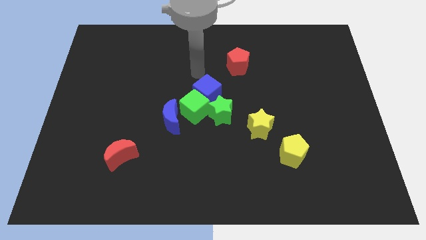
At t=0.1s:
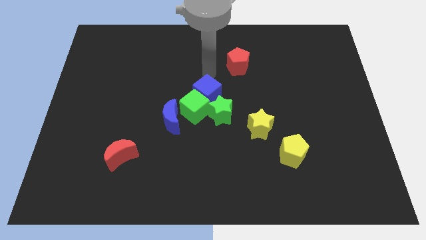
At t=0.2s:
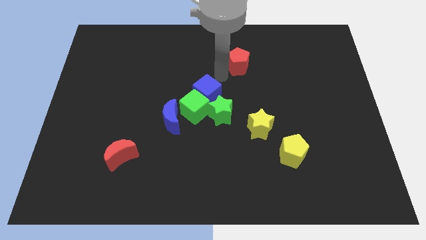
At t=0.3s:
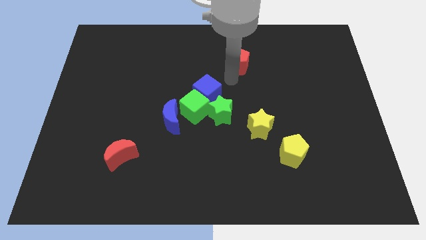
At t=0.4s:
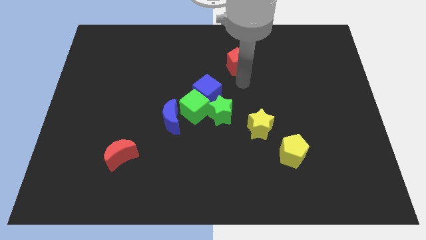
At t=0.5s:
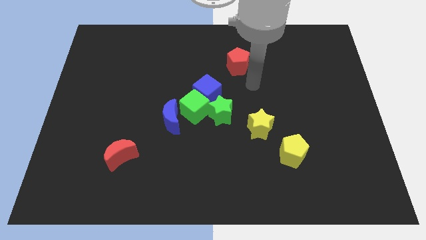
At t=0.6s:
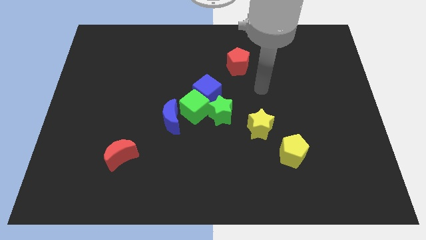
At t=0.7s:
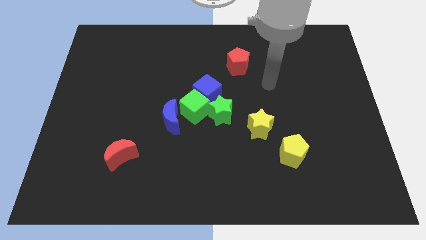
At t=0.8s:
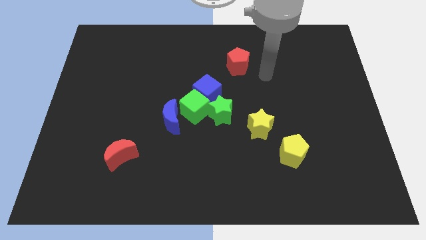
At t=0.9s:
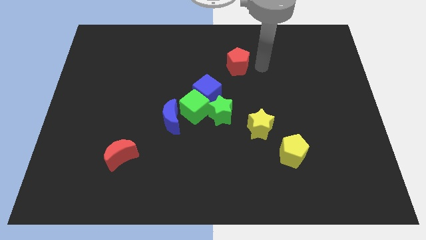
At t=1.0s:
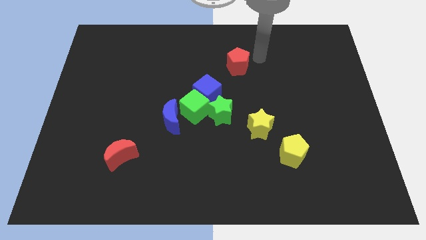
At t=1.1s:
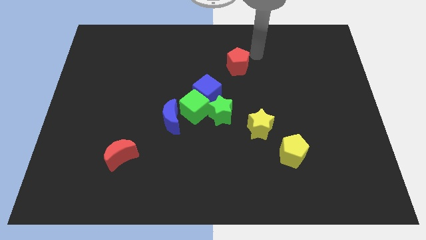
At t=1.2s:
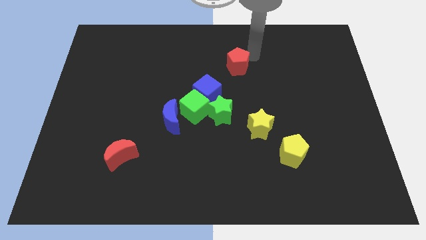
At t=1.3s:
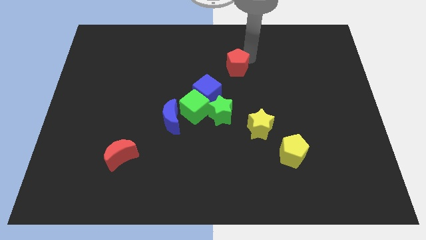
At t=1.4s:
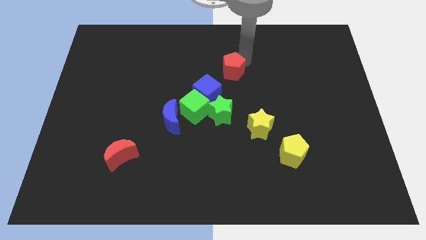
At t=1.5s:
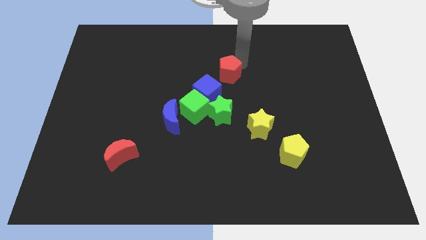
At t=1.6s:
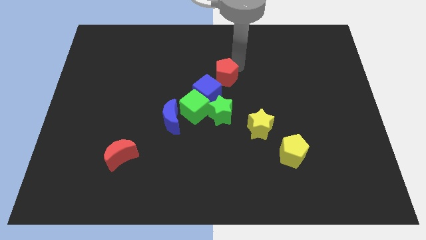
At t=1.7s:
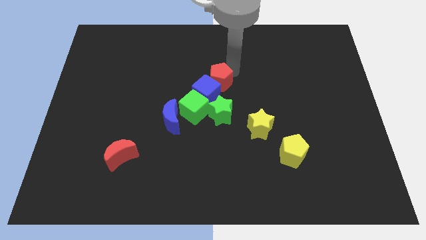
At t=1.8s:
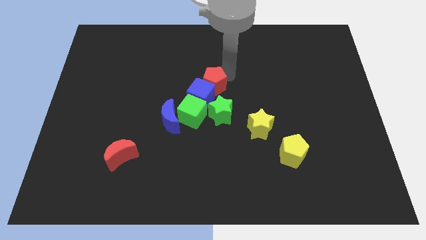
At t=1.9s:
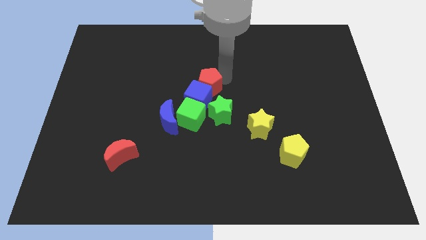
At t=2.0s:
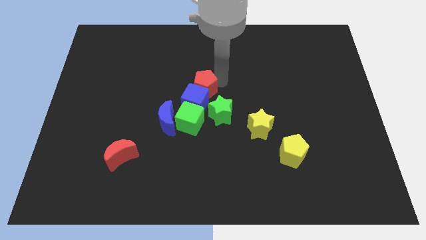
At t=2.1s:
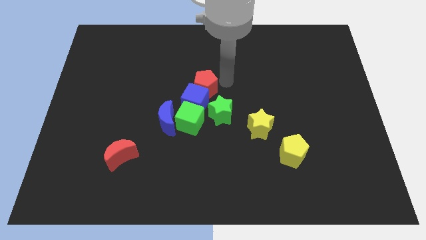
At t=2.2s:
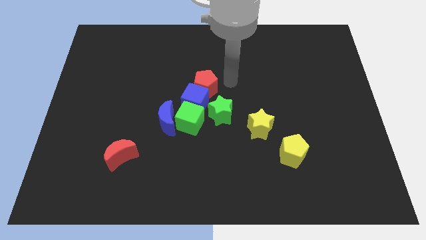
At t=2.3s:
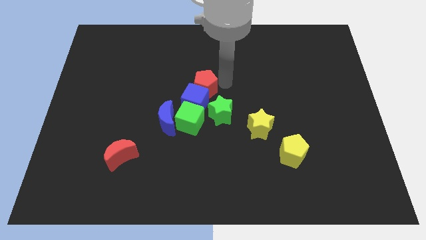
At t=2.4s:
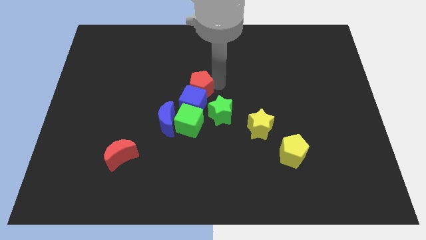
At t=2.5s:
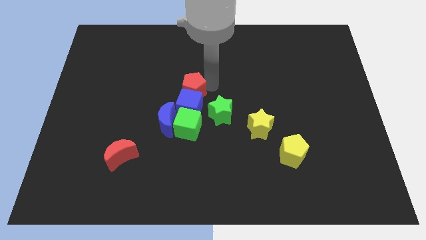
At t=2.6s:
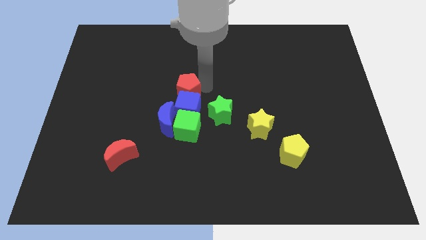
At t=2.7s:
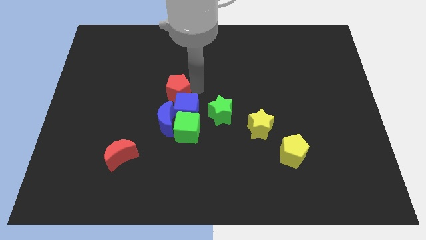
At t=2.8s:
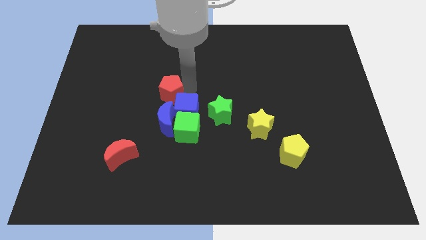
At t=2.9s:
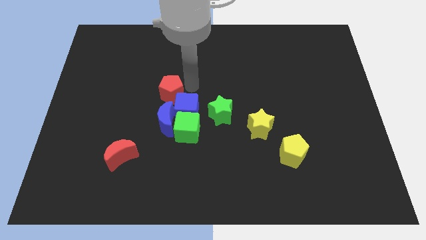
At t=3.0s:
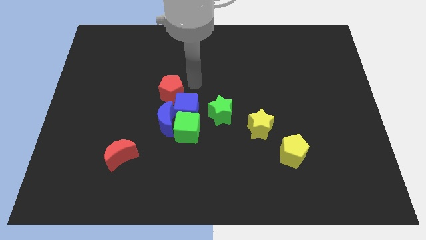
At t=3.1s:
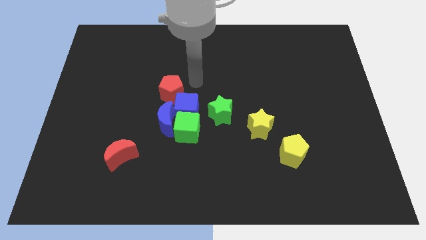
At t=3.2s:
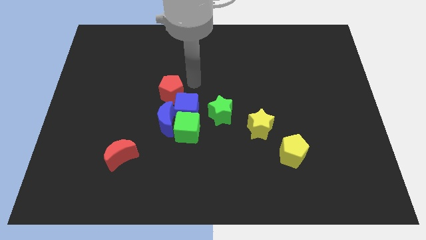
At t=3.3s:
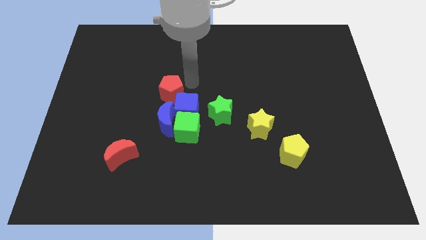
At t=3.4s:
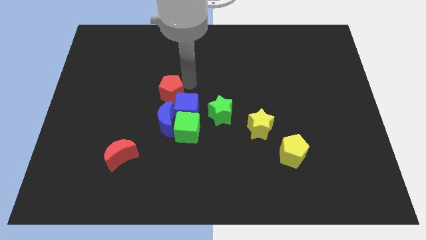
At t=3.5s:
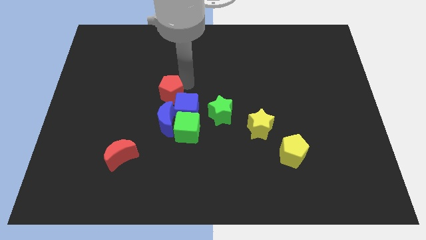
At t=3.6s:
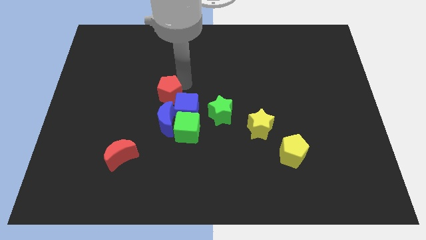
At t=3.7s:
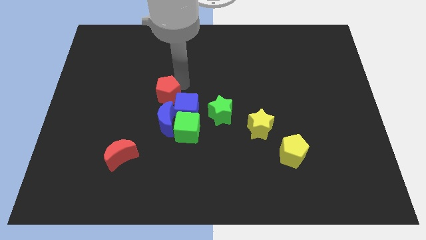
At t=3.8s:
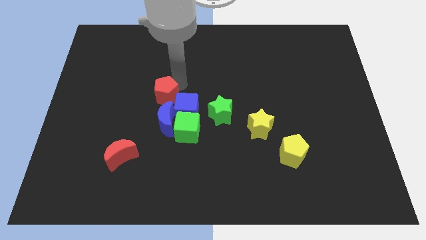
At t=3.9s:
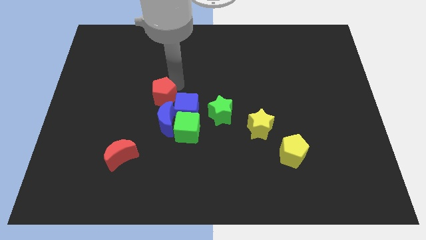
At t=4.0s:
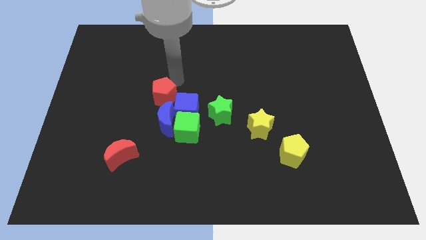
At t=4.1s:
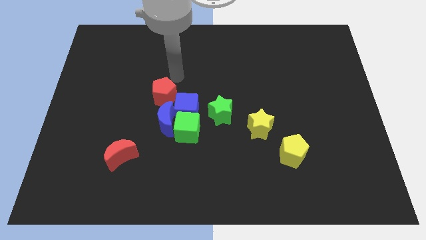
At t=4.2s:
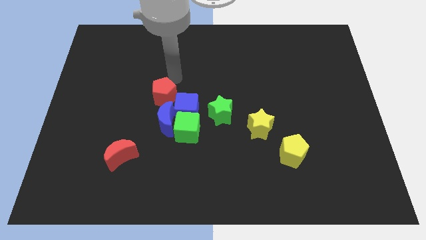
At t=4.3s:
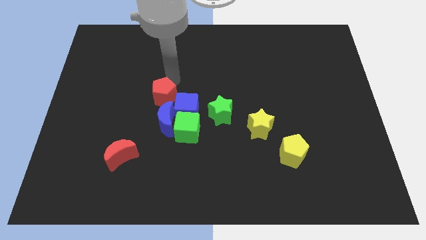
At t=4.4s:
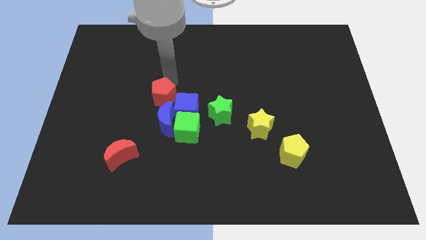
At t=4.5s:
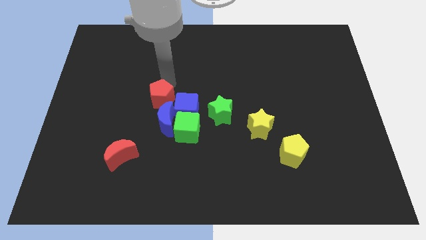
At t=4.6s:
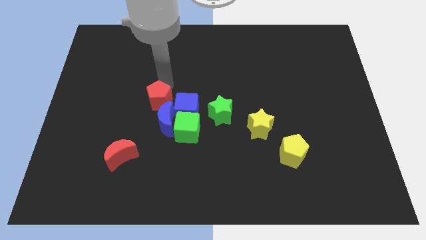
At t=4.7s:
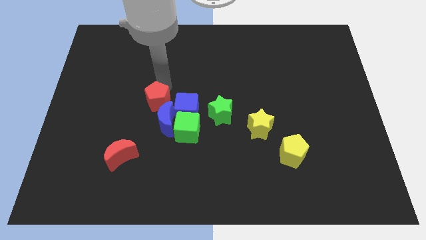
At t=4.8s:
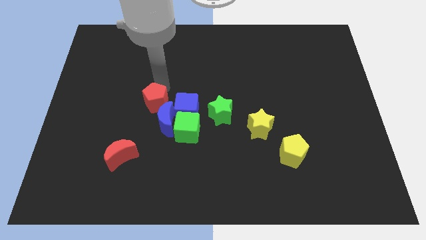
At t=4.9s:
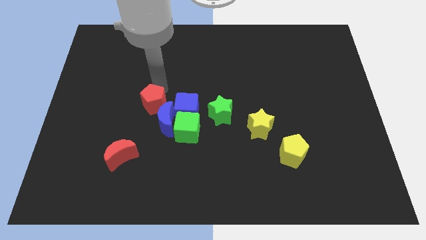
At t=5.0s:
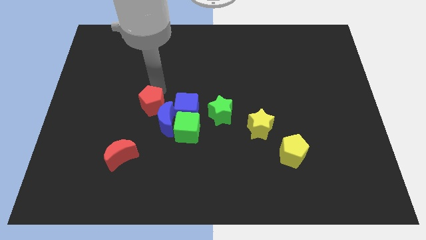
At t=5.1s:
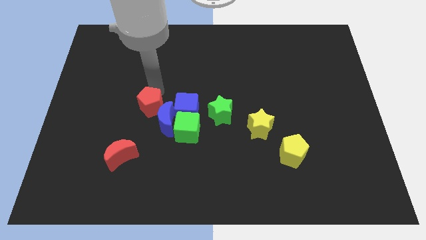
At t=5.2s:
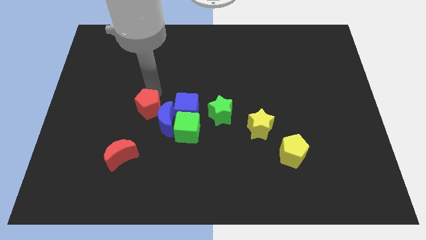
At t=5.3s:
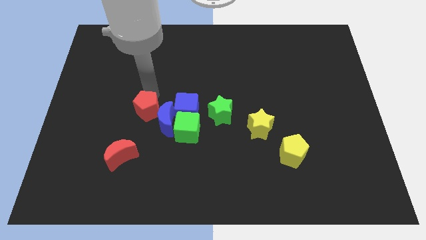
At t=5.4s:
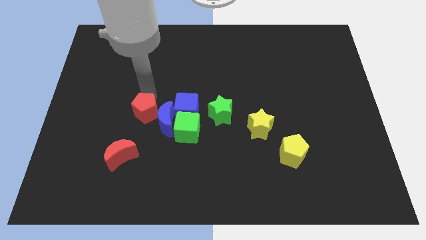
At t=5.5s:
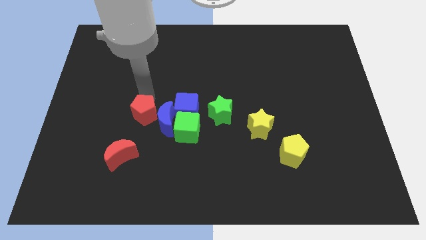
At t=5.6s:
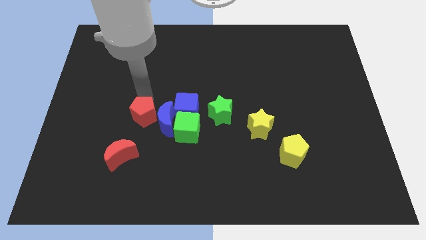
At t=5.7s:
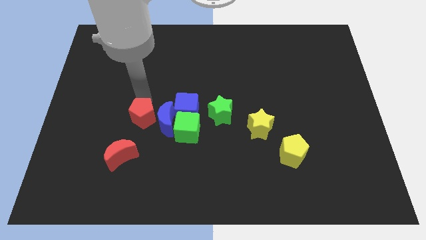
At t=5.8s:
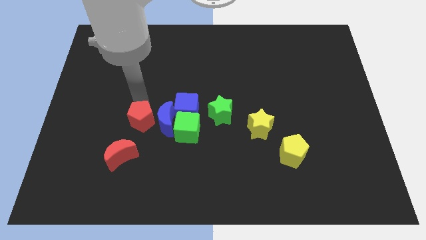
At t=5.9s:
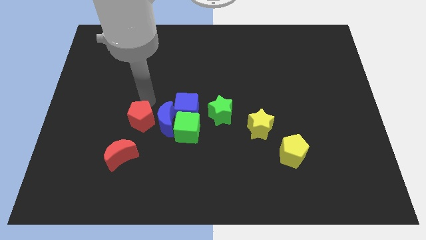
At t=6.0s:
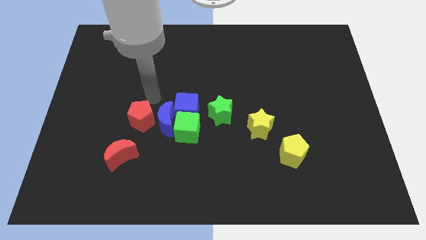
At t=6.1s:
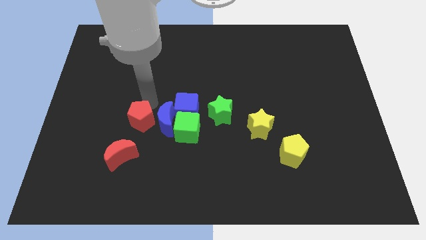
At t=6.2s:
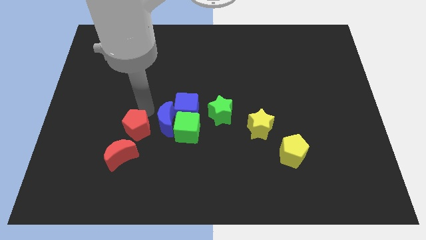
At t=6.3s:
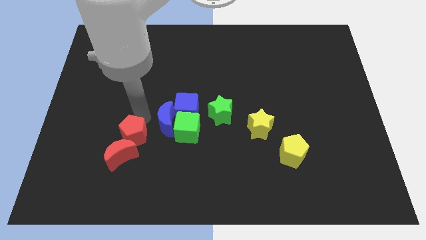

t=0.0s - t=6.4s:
push the red pentagon next to the red moon

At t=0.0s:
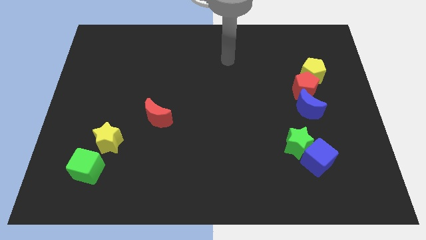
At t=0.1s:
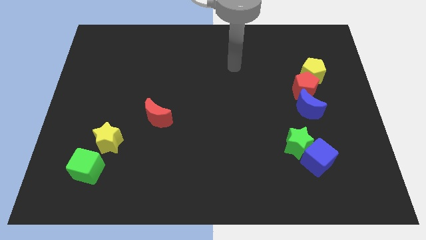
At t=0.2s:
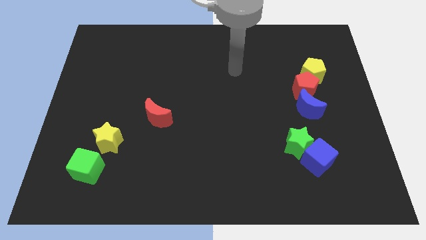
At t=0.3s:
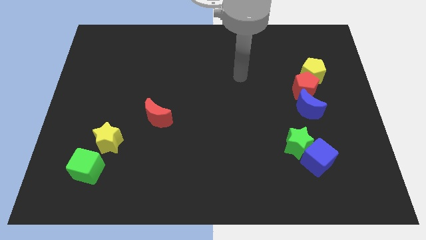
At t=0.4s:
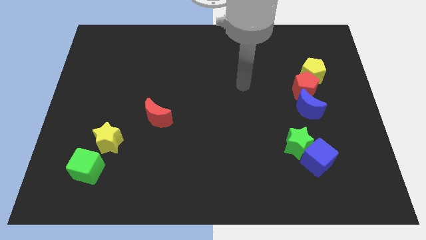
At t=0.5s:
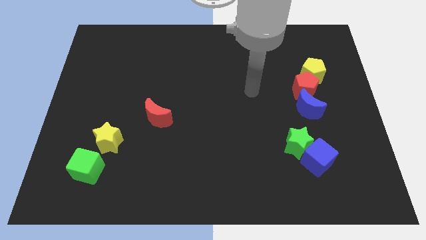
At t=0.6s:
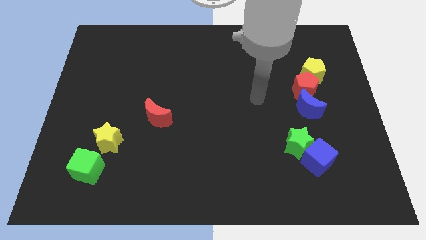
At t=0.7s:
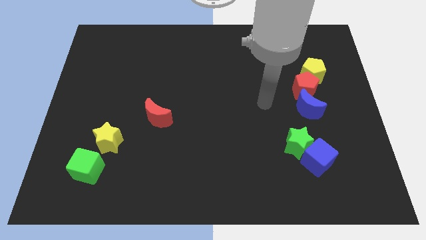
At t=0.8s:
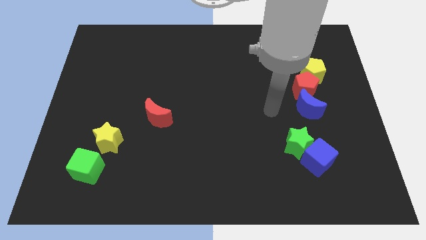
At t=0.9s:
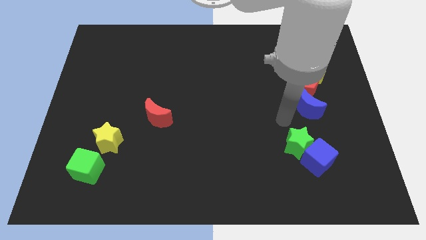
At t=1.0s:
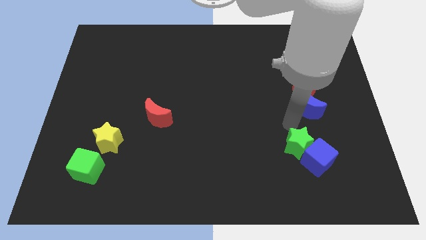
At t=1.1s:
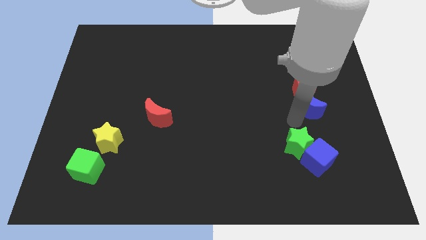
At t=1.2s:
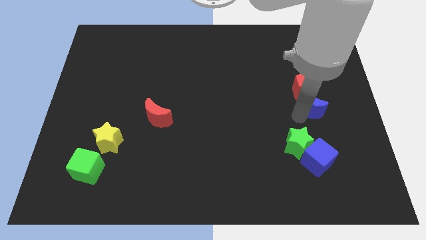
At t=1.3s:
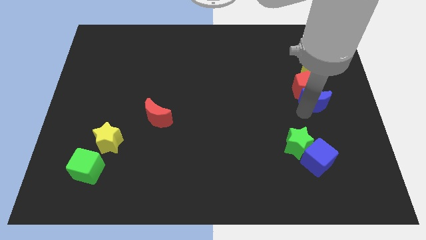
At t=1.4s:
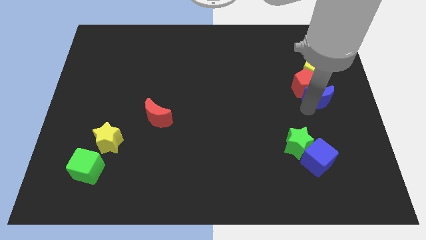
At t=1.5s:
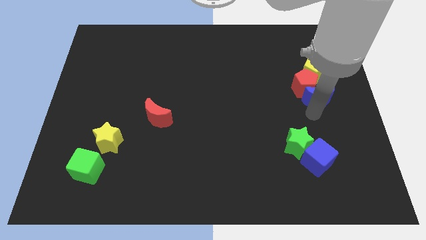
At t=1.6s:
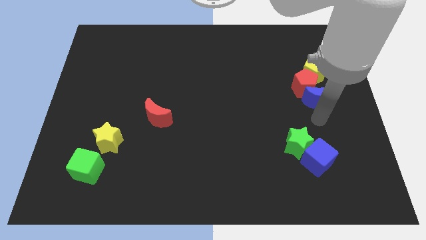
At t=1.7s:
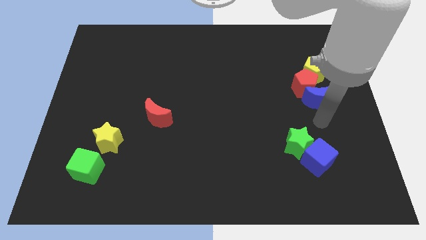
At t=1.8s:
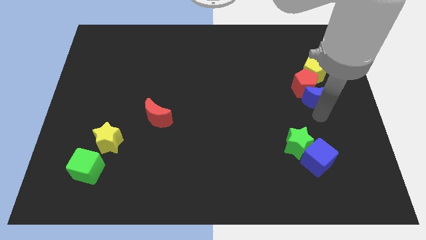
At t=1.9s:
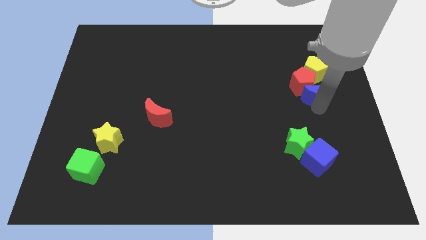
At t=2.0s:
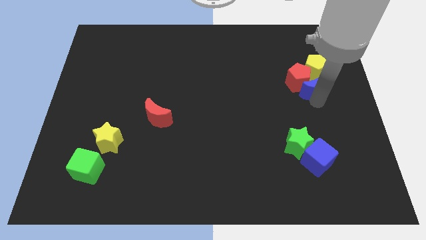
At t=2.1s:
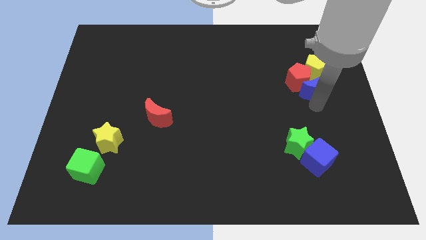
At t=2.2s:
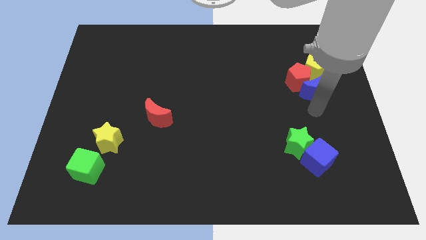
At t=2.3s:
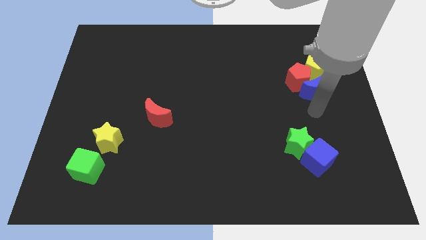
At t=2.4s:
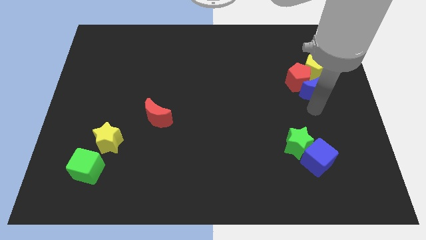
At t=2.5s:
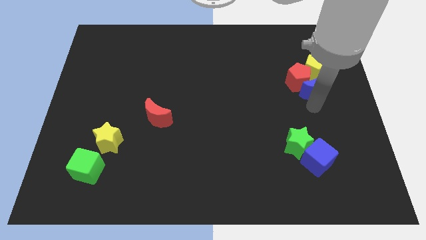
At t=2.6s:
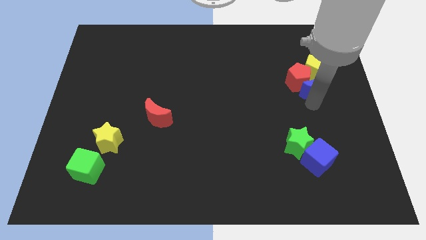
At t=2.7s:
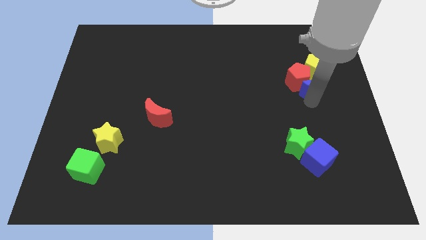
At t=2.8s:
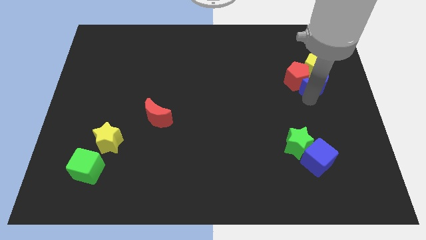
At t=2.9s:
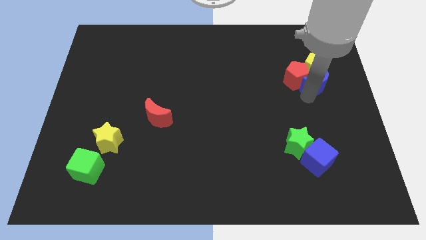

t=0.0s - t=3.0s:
push the blue moon to the yellow pentagon
